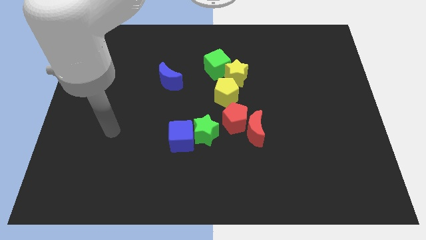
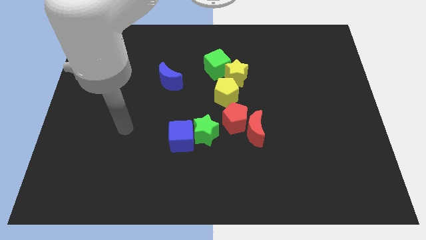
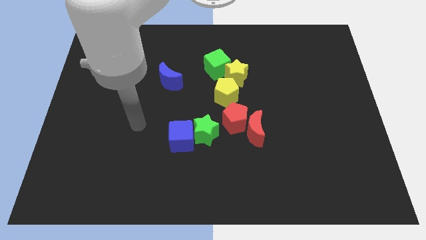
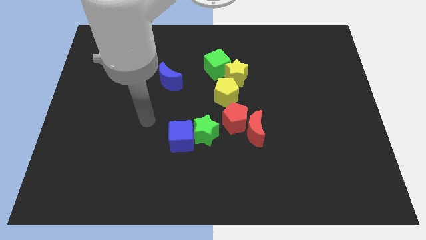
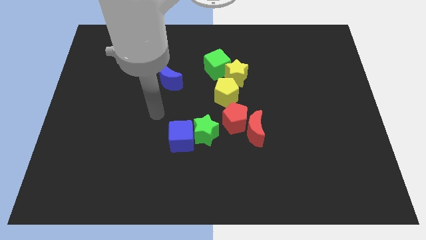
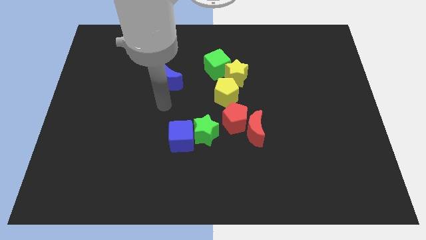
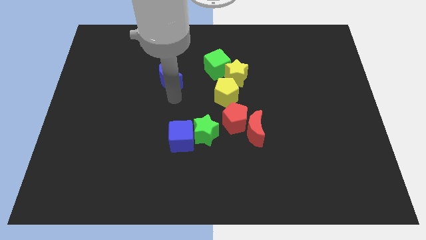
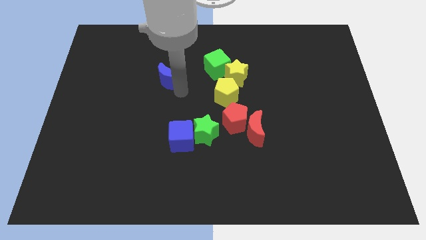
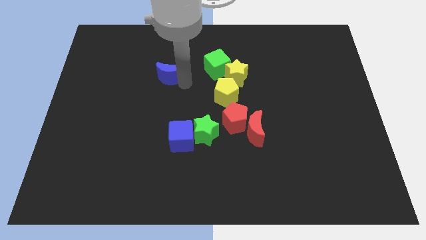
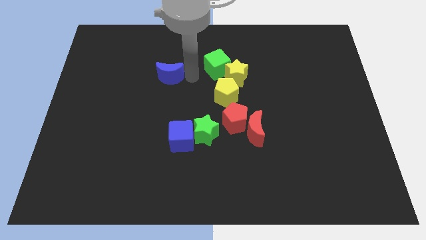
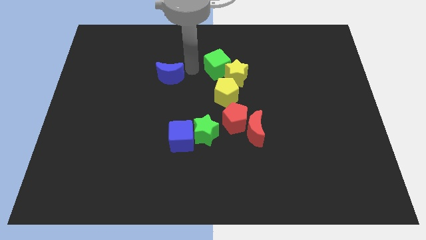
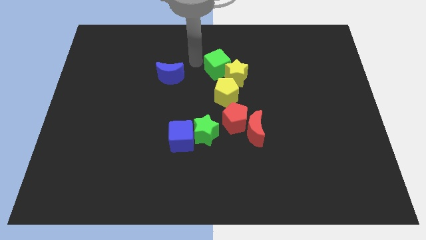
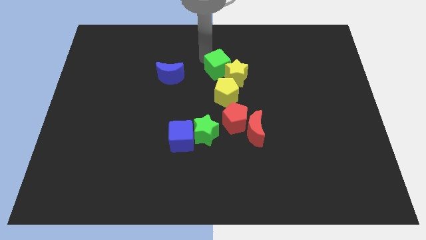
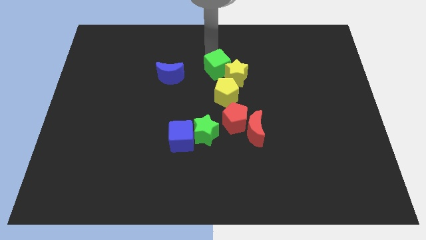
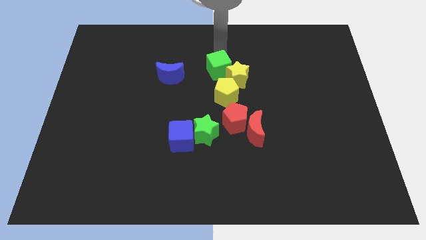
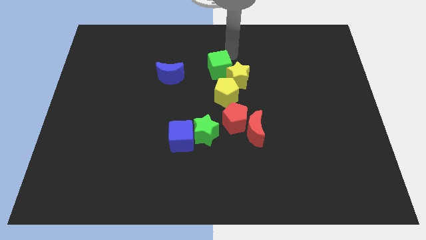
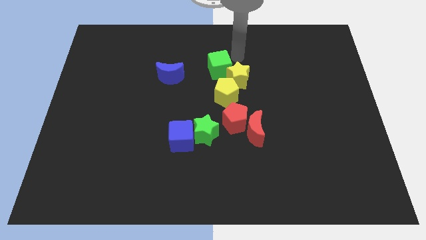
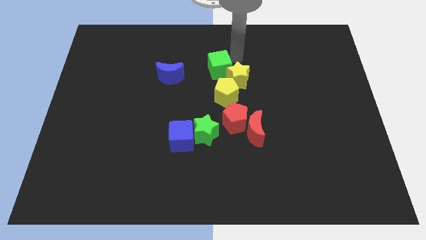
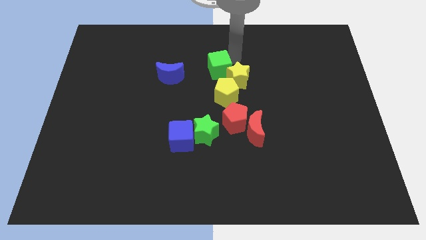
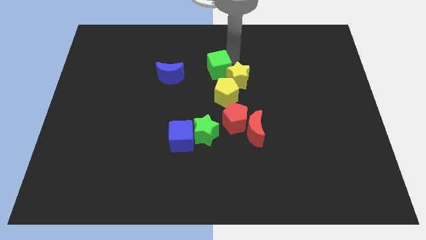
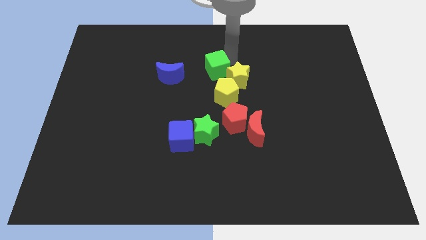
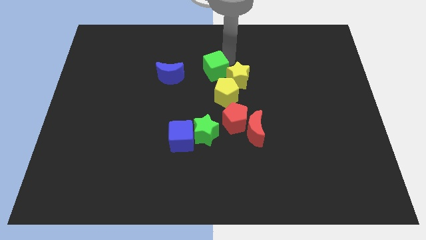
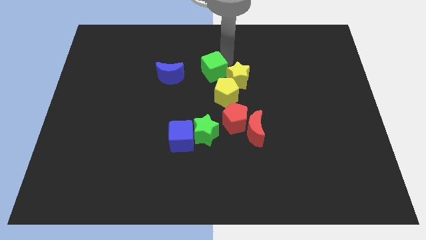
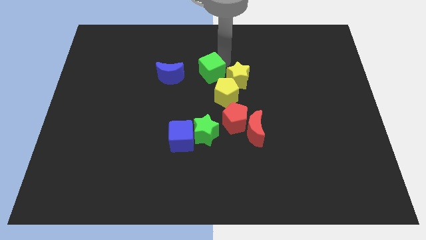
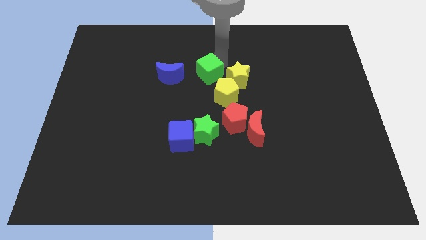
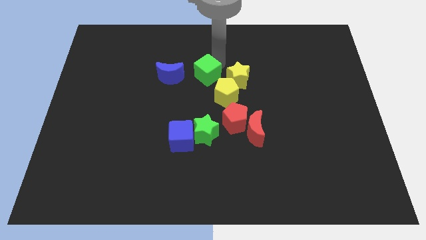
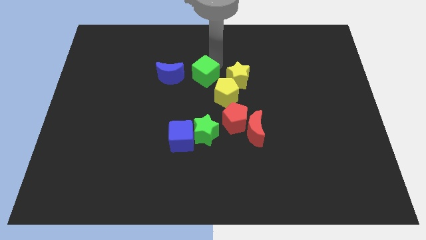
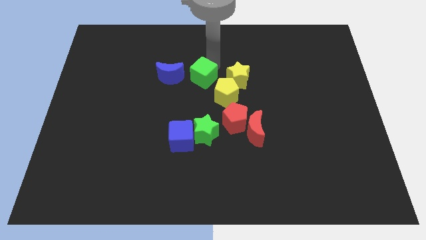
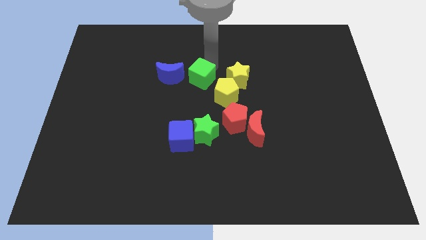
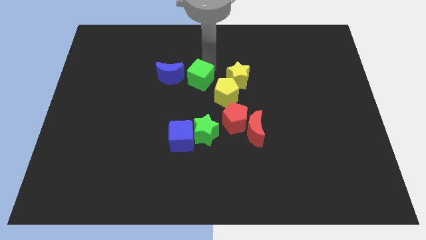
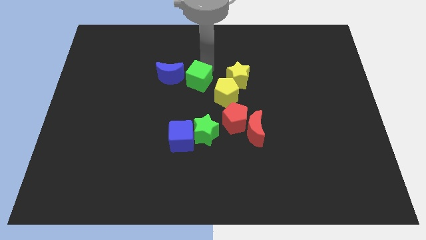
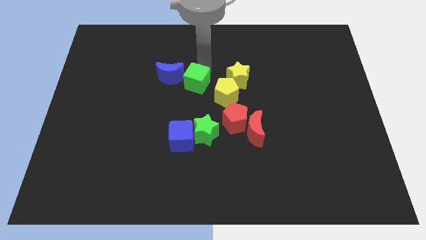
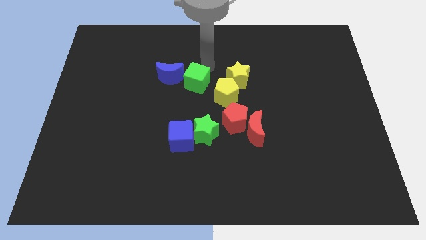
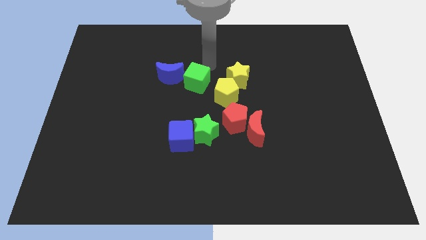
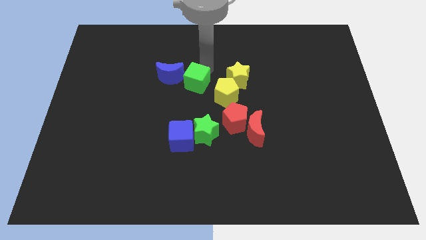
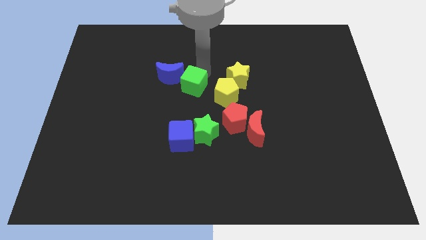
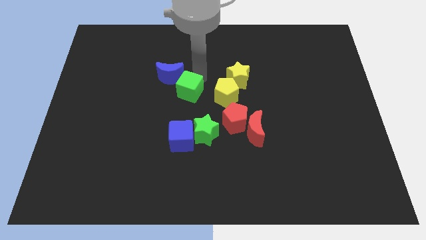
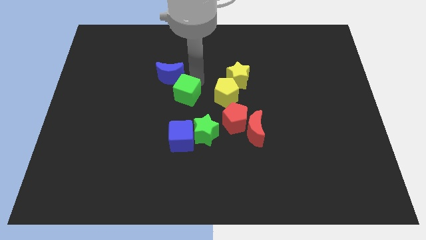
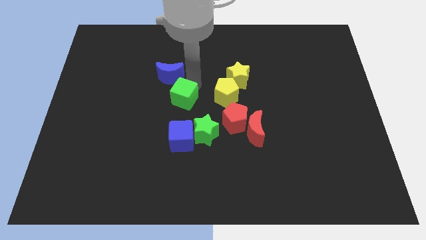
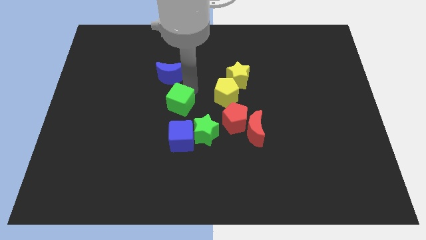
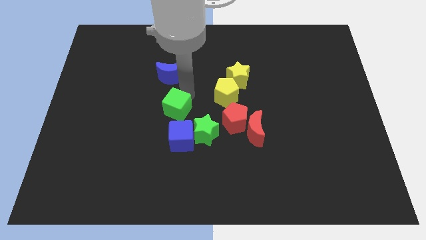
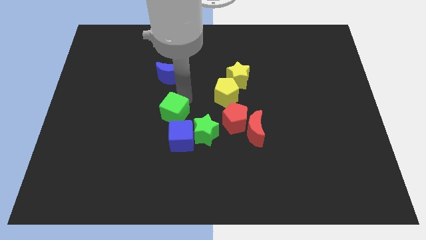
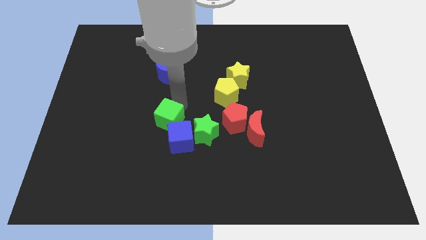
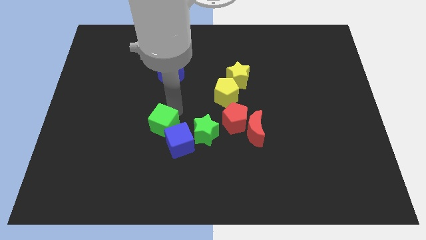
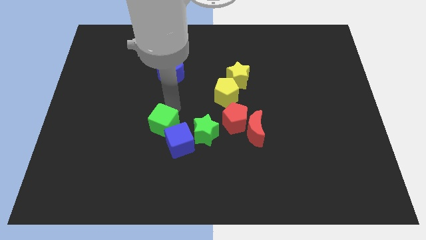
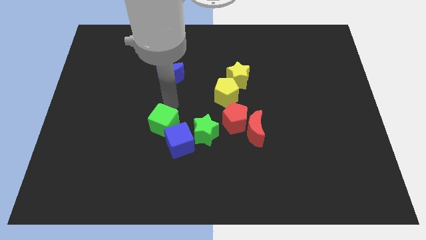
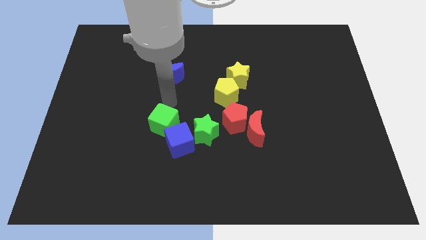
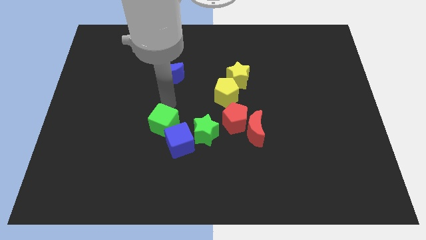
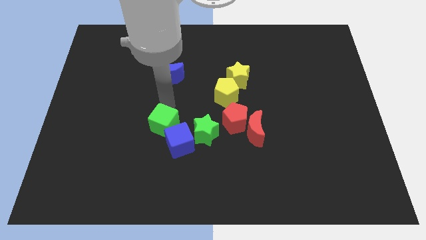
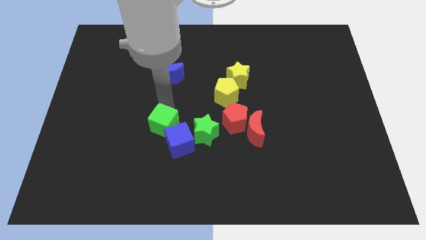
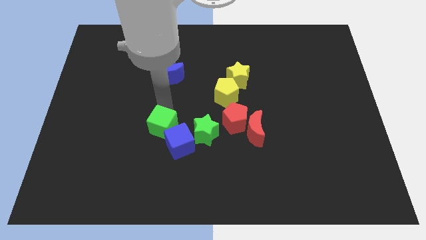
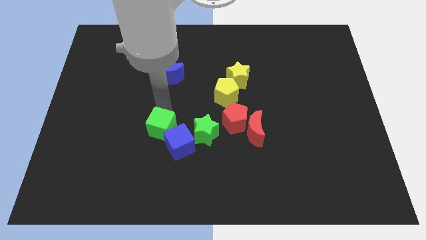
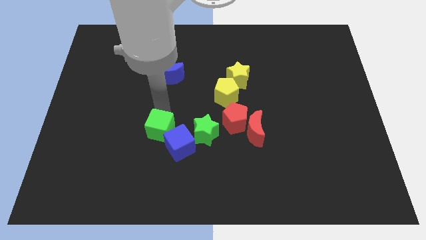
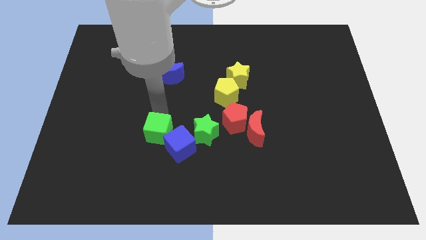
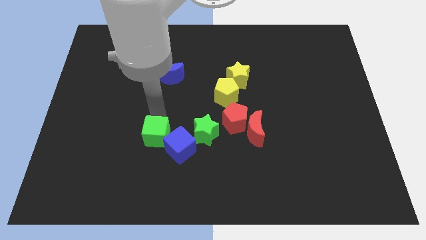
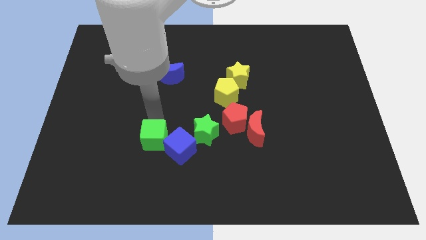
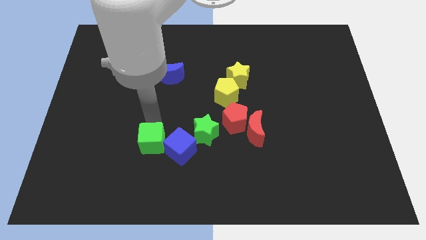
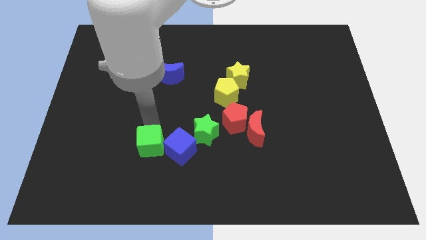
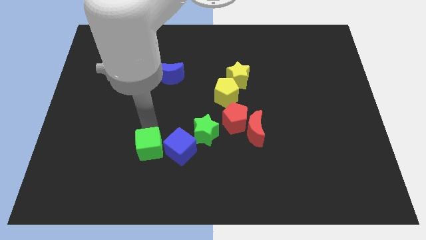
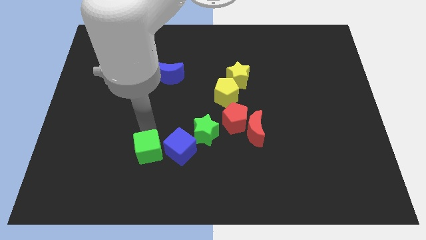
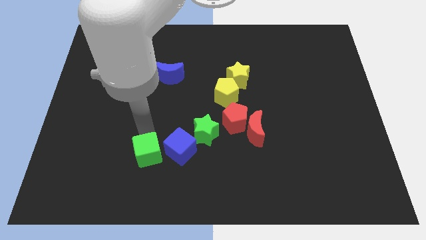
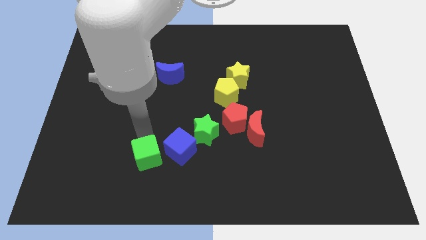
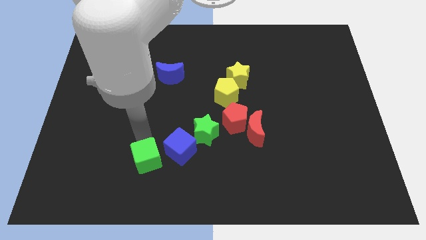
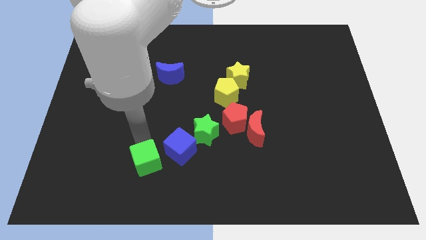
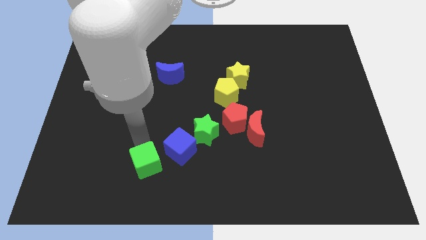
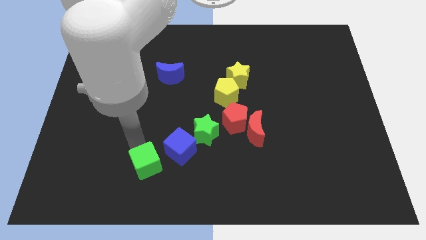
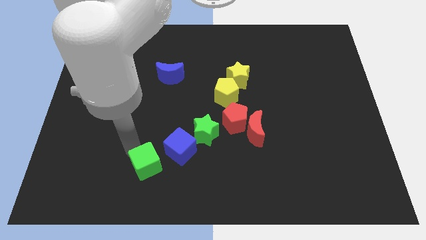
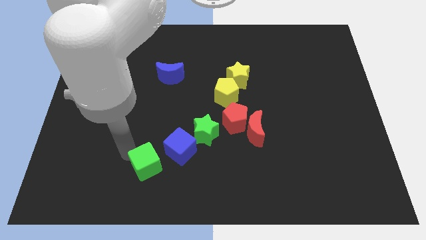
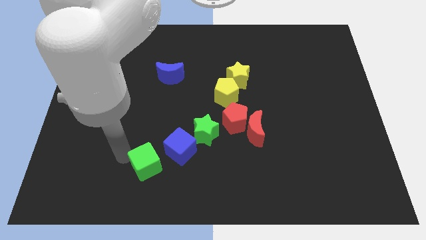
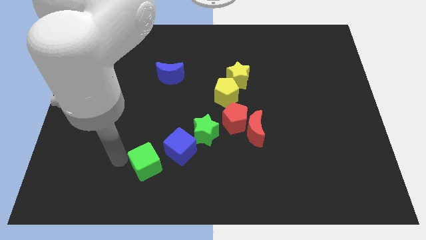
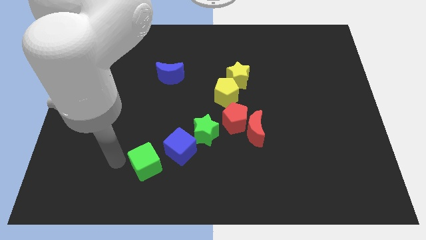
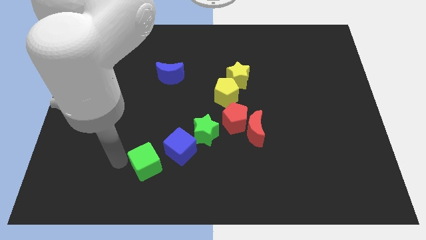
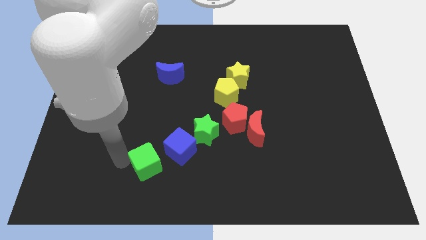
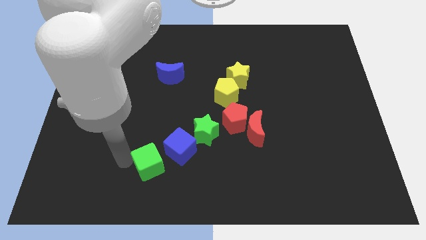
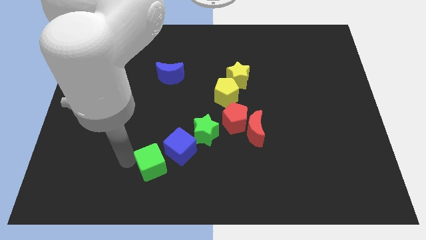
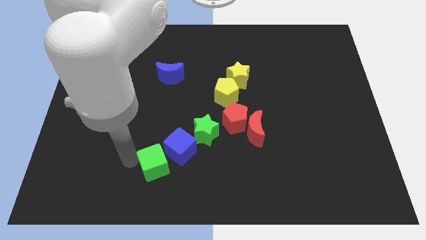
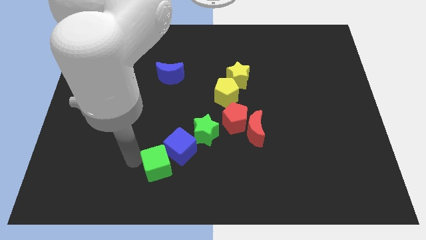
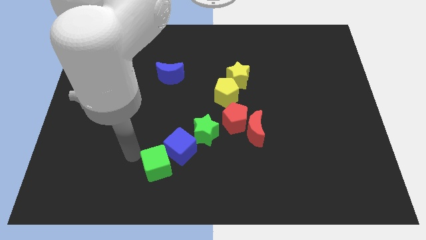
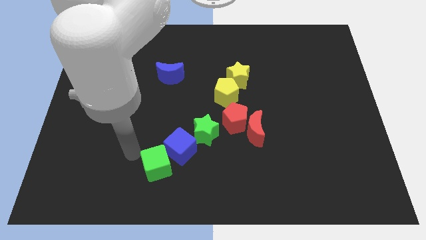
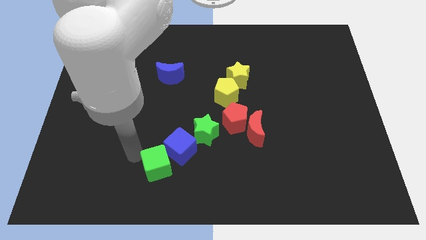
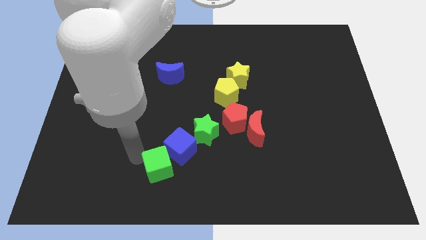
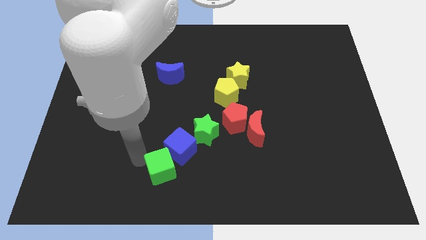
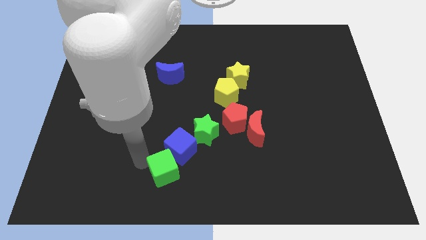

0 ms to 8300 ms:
move the green cube to the bottom side
